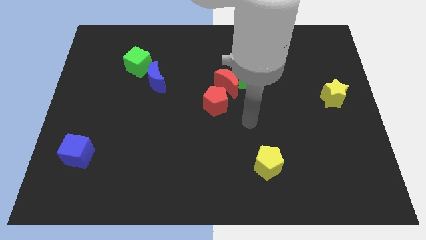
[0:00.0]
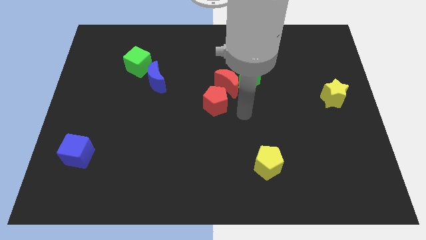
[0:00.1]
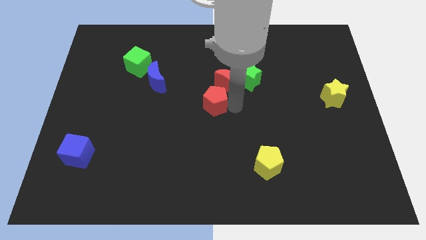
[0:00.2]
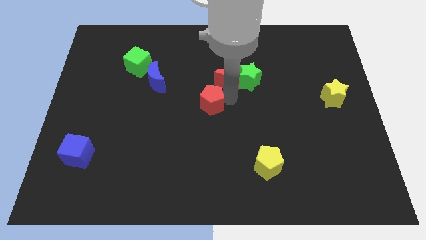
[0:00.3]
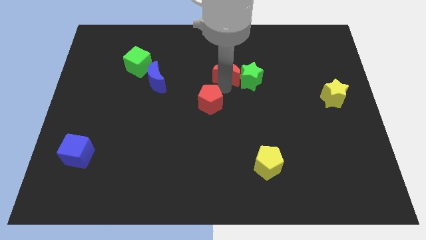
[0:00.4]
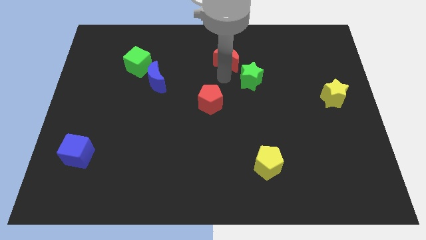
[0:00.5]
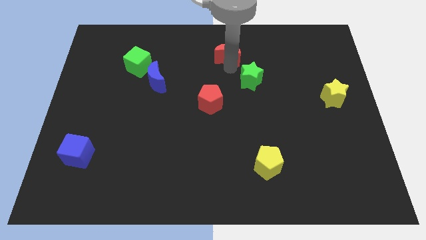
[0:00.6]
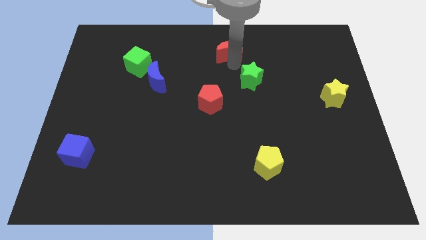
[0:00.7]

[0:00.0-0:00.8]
move the green star away from the red moon

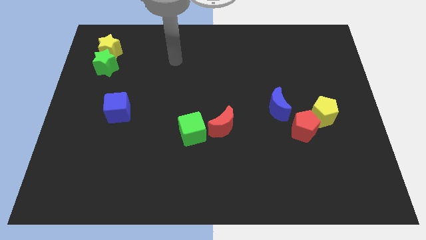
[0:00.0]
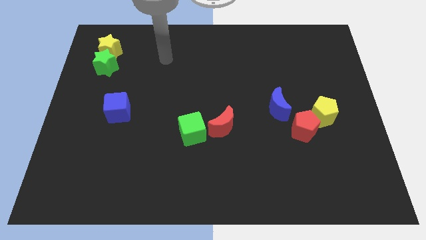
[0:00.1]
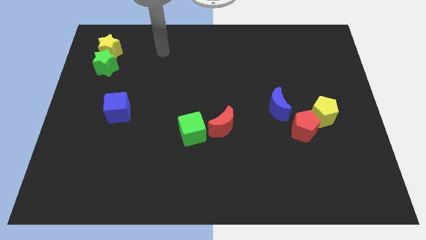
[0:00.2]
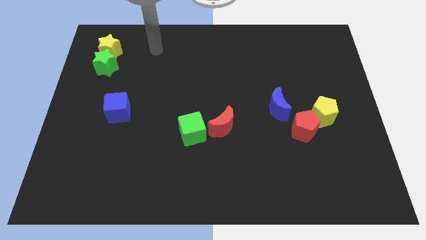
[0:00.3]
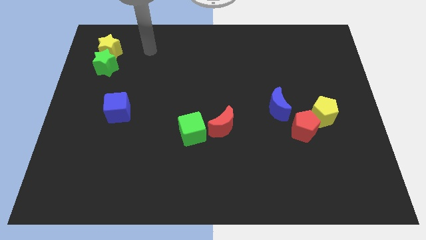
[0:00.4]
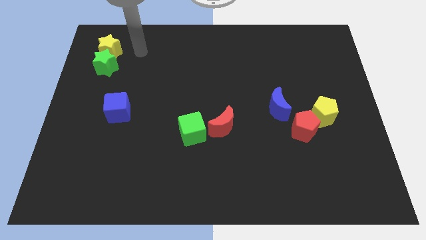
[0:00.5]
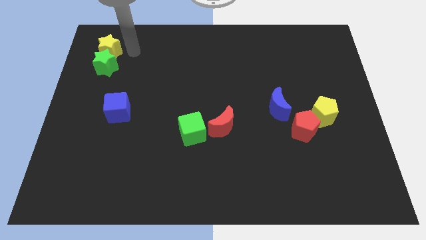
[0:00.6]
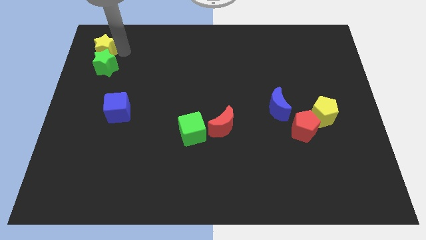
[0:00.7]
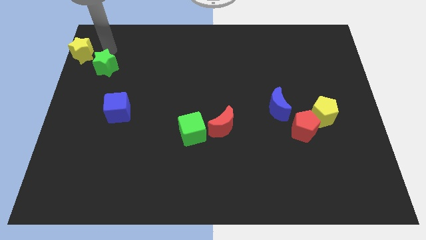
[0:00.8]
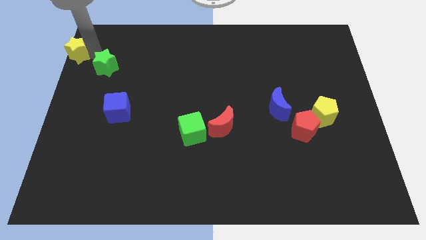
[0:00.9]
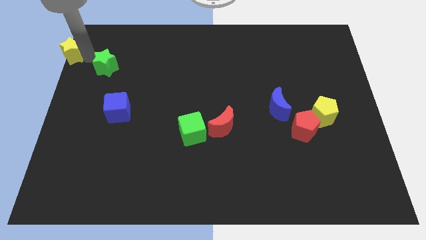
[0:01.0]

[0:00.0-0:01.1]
pull the green star apart from the yellow star

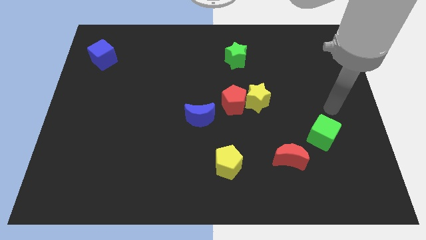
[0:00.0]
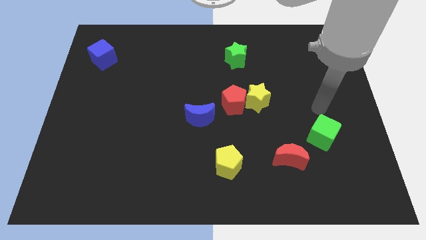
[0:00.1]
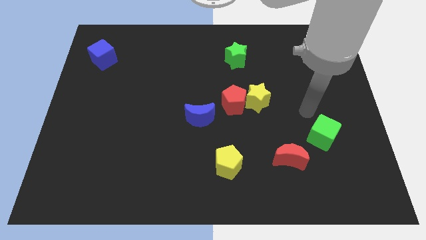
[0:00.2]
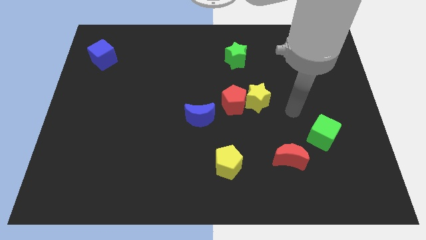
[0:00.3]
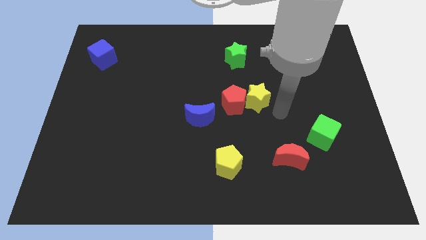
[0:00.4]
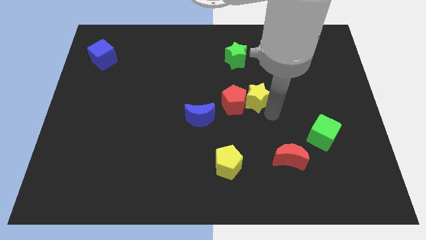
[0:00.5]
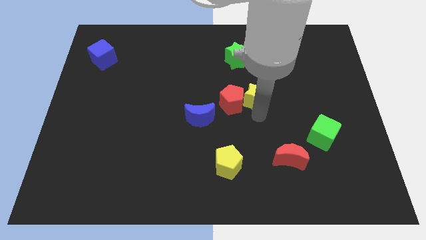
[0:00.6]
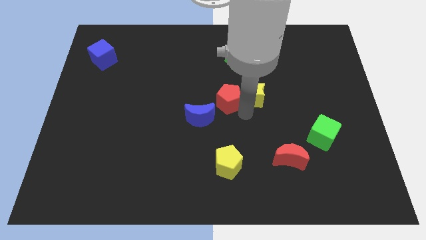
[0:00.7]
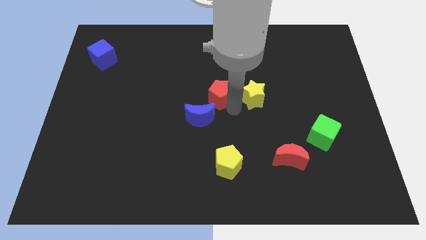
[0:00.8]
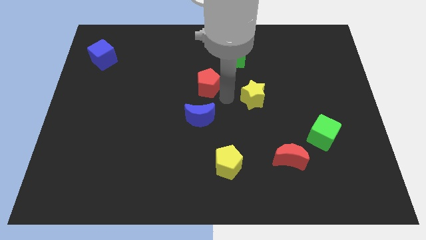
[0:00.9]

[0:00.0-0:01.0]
separate the yellow star from the red pentagon

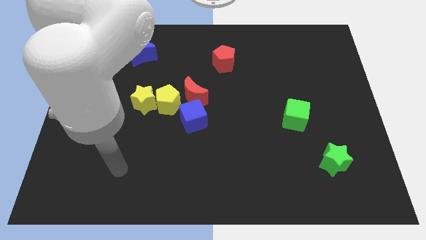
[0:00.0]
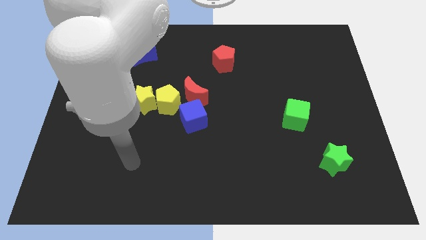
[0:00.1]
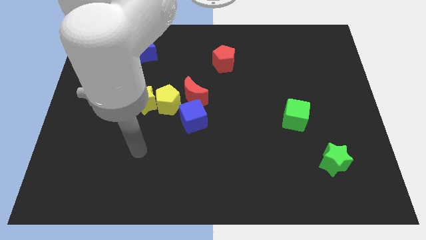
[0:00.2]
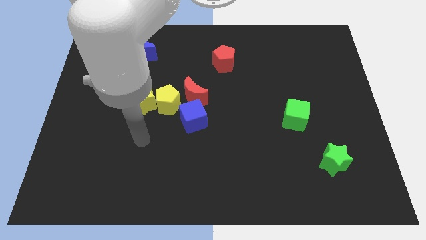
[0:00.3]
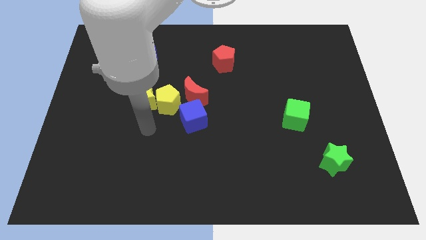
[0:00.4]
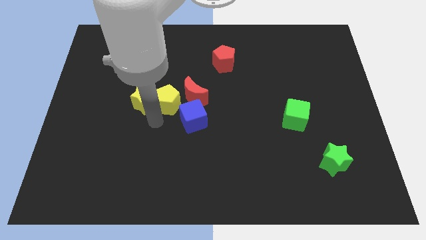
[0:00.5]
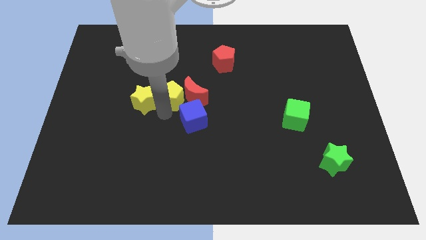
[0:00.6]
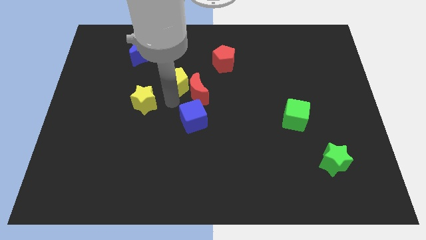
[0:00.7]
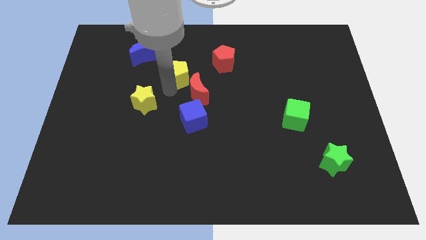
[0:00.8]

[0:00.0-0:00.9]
pull the yellow star apart from the yellow pentagon

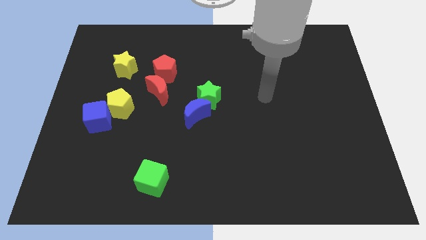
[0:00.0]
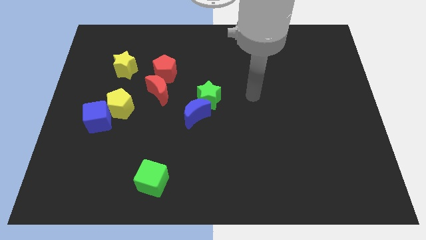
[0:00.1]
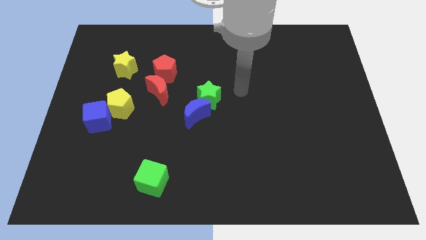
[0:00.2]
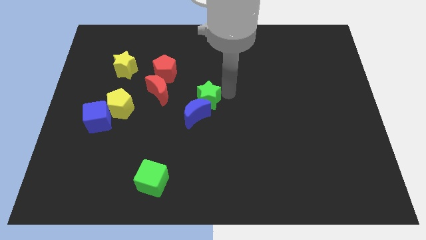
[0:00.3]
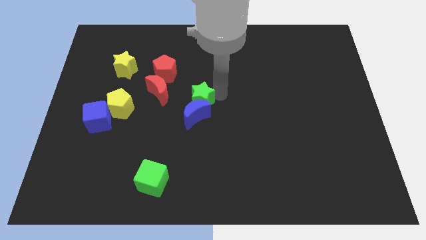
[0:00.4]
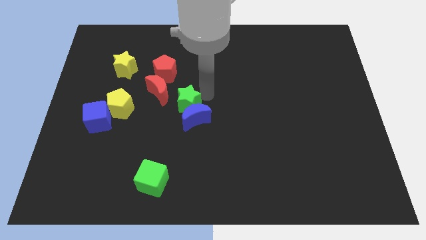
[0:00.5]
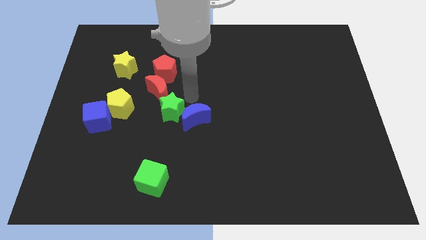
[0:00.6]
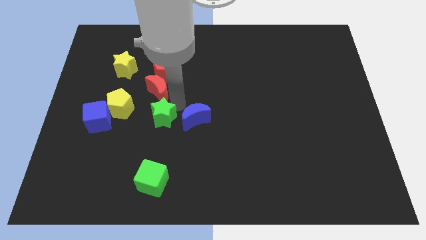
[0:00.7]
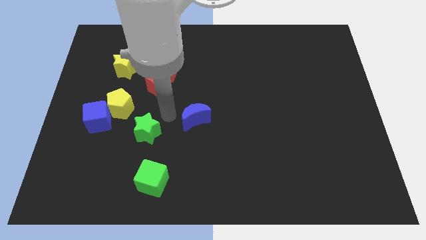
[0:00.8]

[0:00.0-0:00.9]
move the blue moon away from the green star

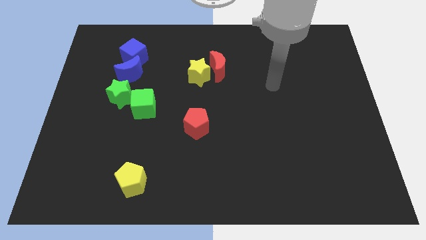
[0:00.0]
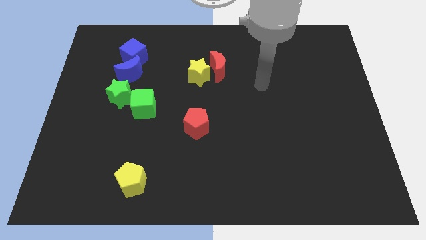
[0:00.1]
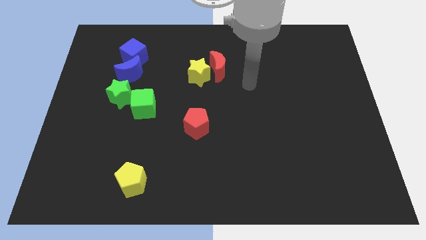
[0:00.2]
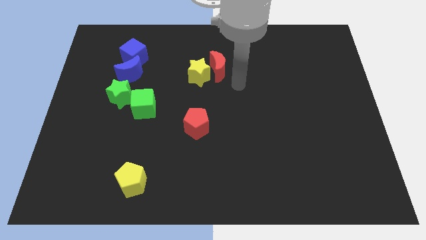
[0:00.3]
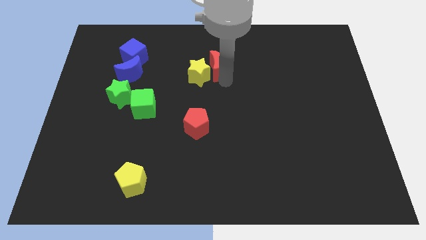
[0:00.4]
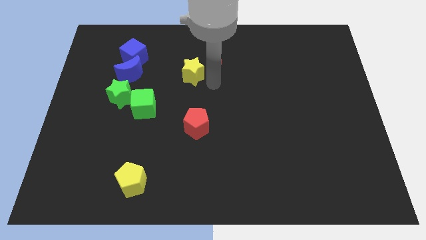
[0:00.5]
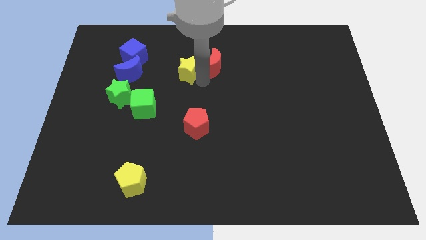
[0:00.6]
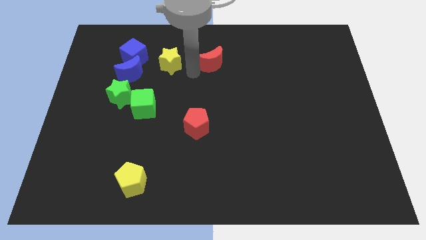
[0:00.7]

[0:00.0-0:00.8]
separate the red moon from the yellow star

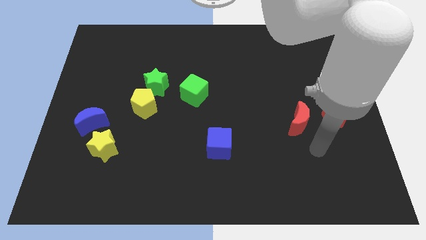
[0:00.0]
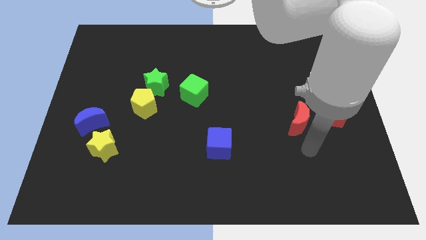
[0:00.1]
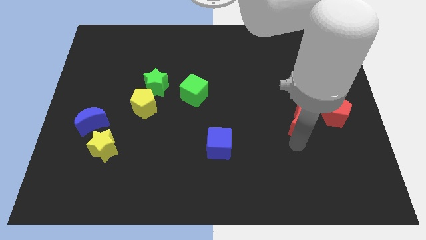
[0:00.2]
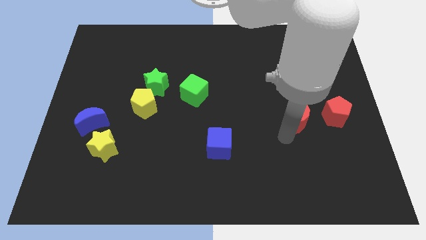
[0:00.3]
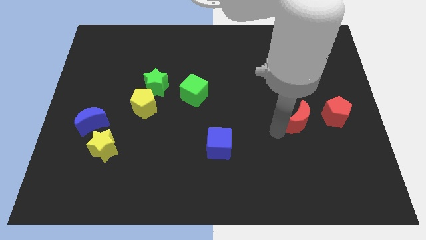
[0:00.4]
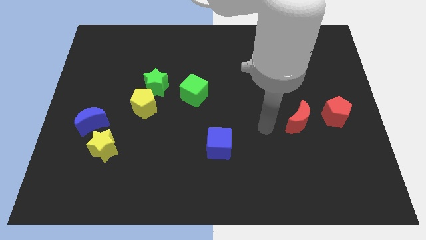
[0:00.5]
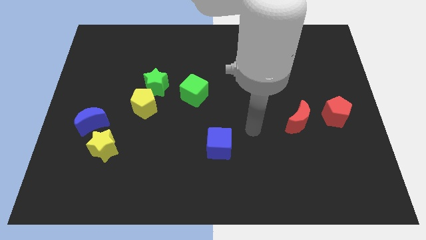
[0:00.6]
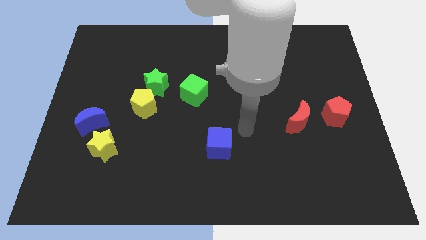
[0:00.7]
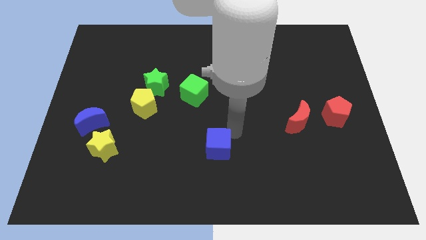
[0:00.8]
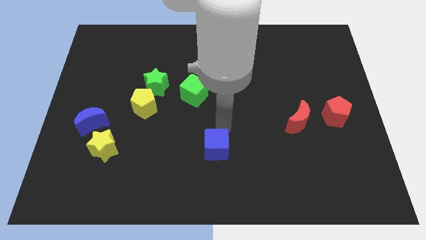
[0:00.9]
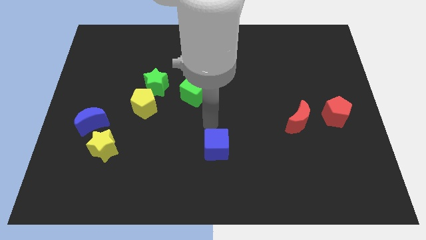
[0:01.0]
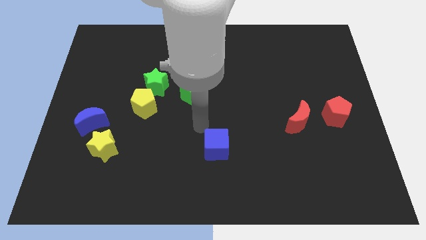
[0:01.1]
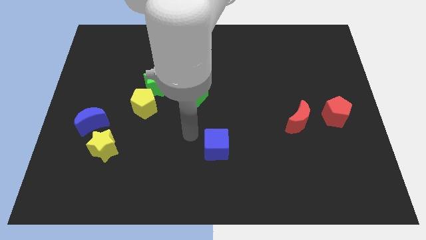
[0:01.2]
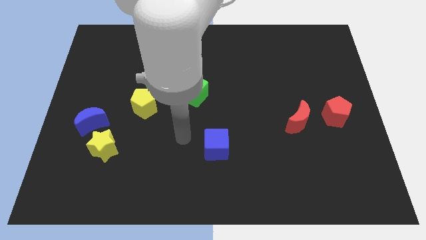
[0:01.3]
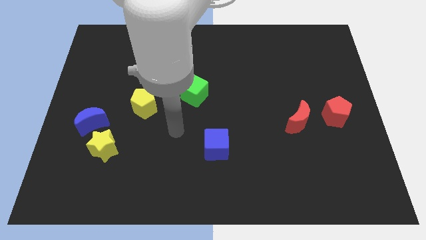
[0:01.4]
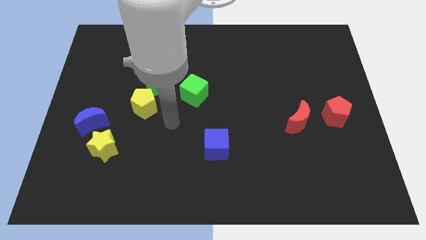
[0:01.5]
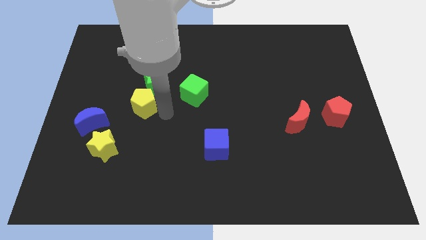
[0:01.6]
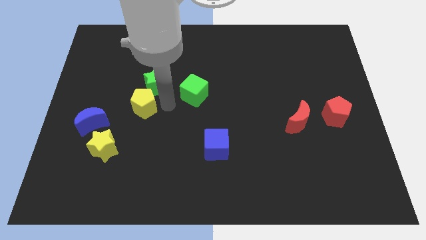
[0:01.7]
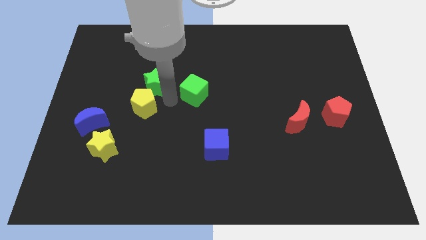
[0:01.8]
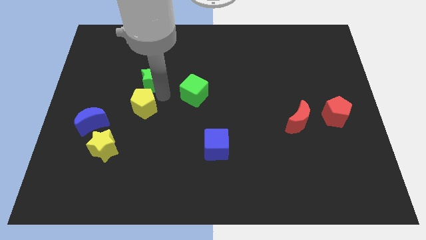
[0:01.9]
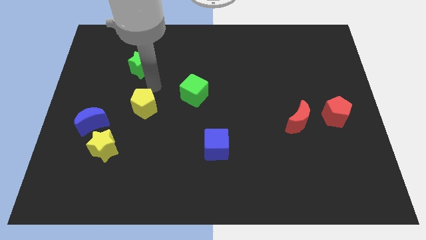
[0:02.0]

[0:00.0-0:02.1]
move the yellow pentagon away from the green star

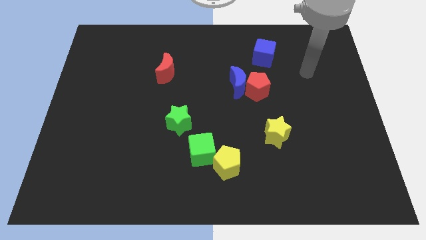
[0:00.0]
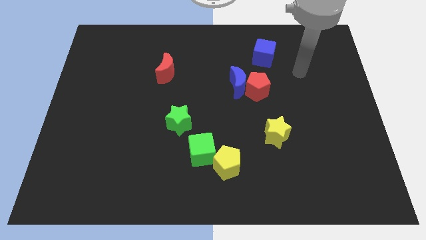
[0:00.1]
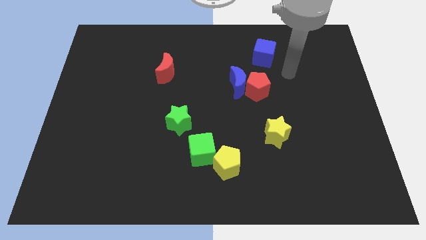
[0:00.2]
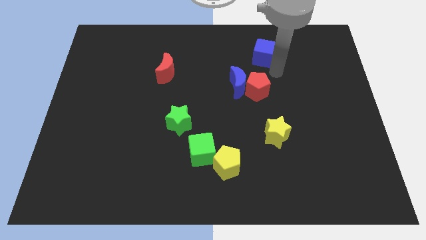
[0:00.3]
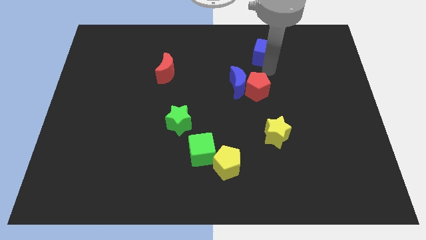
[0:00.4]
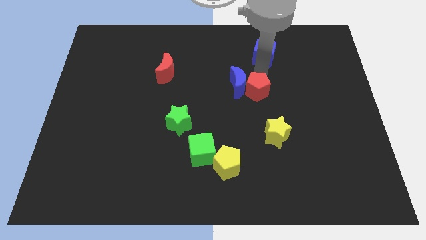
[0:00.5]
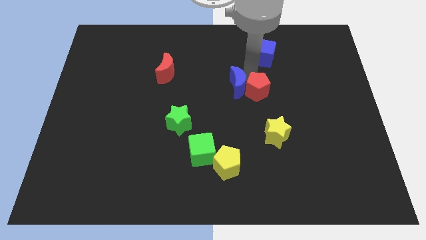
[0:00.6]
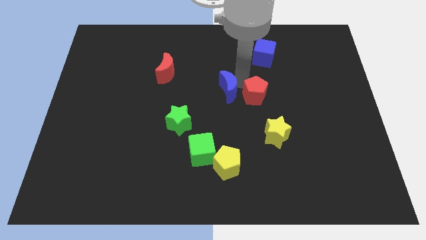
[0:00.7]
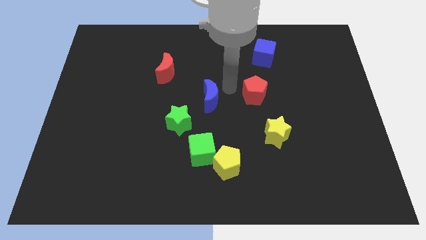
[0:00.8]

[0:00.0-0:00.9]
pull the red pentagon apart from the blue moon

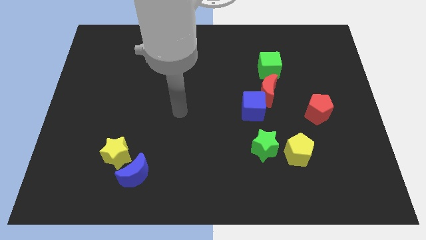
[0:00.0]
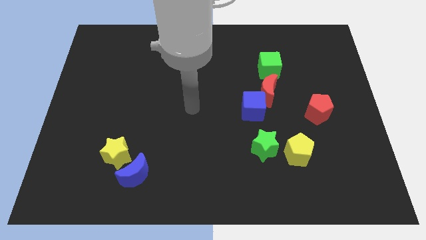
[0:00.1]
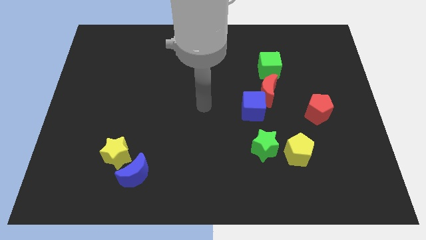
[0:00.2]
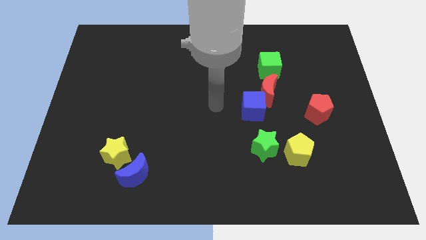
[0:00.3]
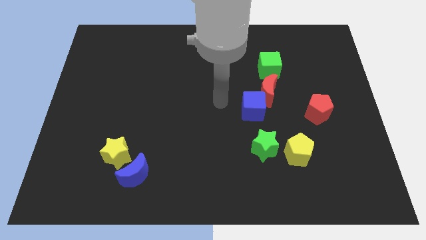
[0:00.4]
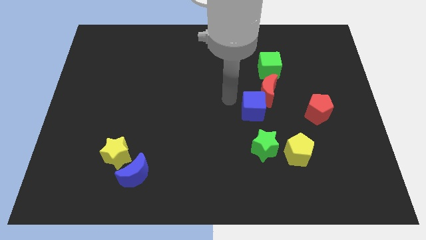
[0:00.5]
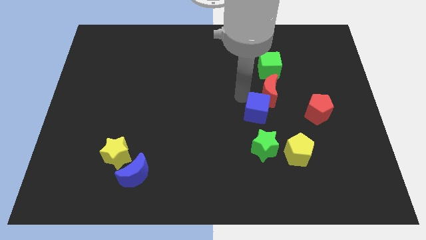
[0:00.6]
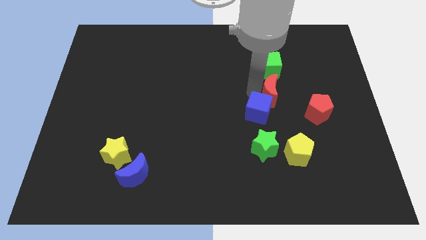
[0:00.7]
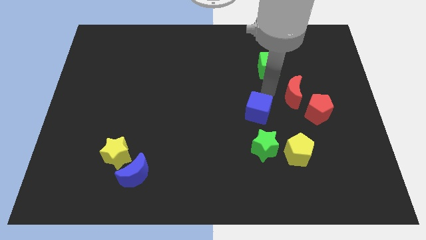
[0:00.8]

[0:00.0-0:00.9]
move the blue cube away from the red moon
